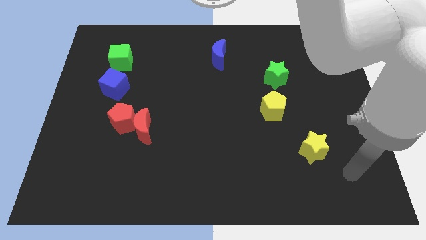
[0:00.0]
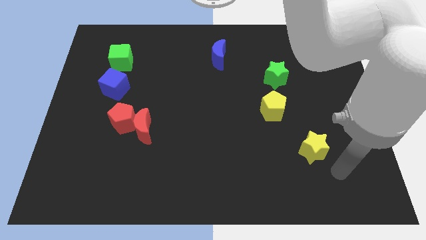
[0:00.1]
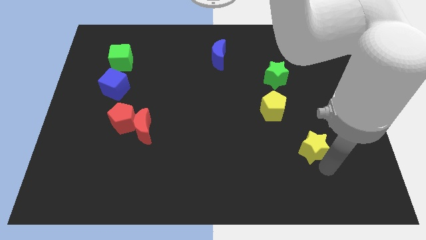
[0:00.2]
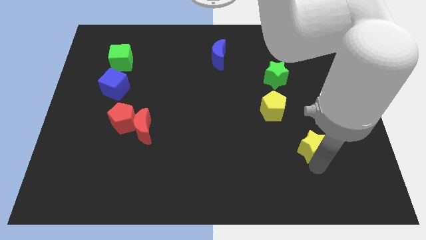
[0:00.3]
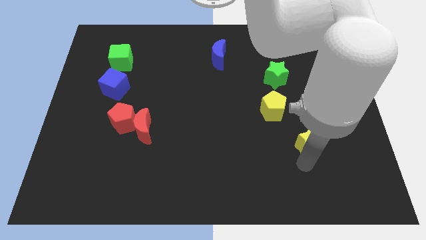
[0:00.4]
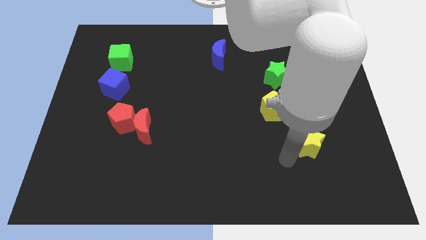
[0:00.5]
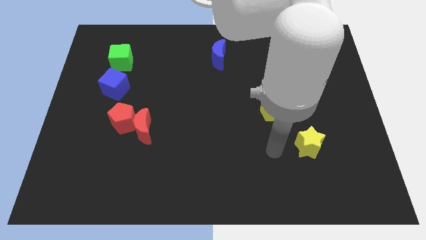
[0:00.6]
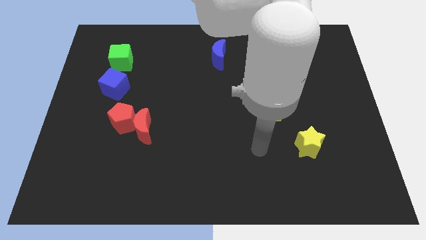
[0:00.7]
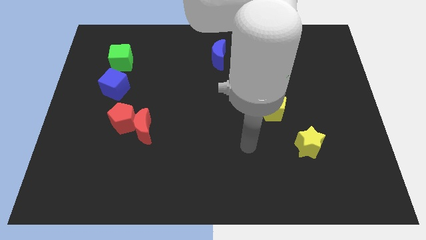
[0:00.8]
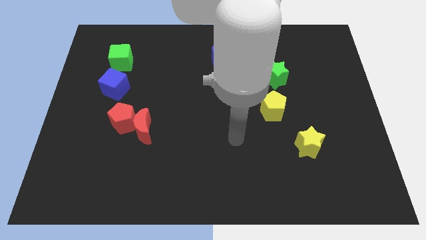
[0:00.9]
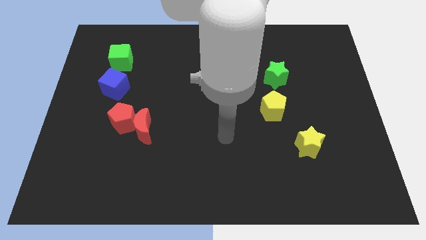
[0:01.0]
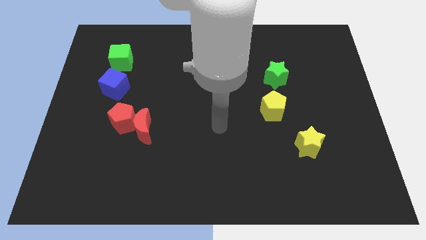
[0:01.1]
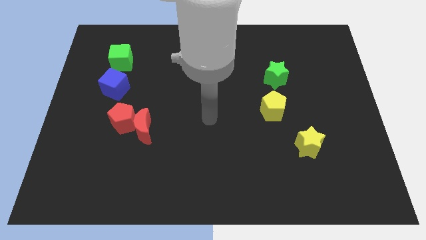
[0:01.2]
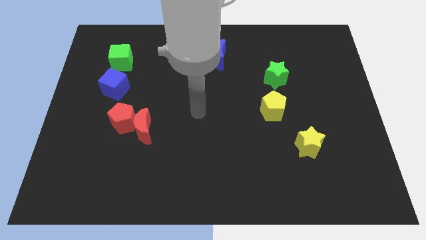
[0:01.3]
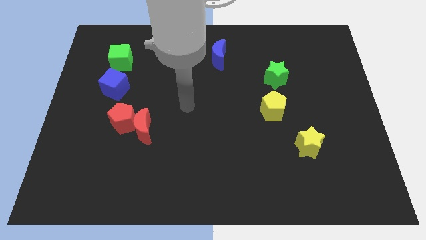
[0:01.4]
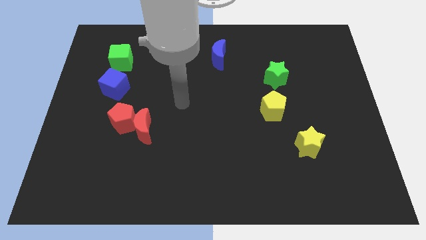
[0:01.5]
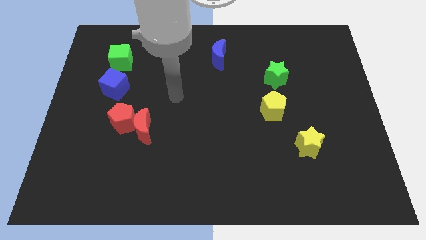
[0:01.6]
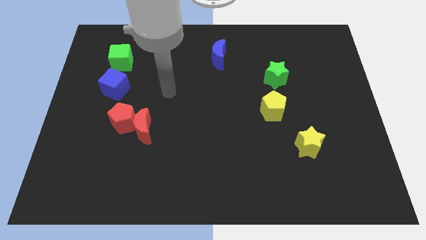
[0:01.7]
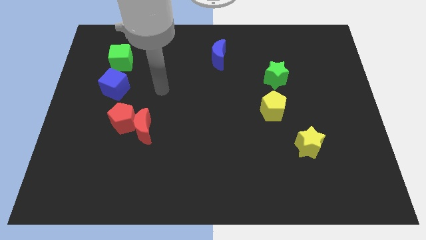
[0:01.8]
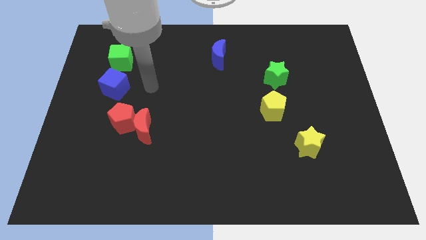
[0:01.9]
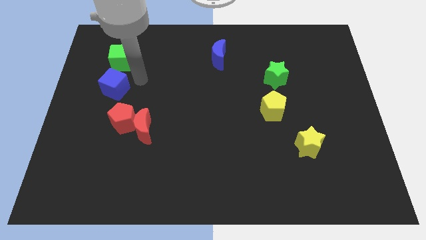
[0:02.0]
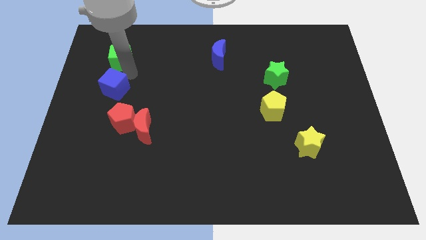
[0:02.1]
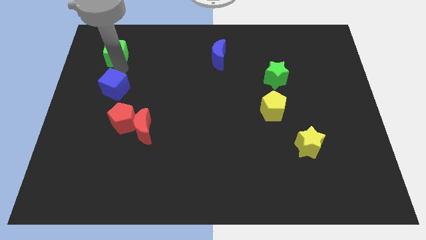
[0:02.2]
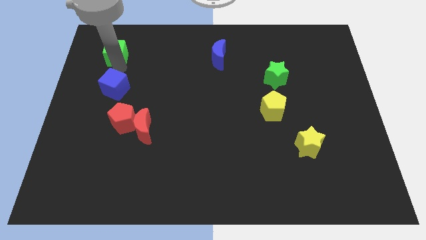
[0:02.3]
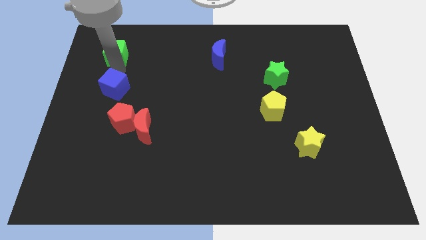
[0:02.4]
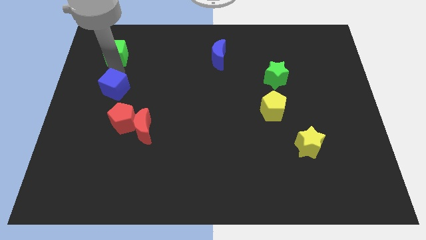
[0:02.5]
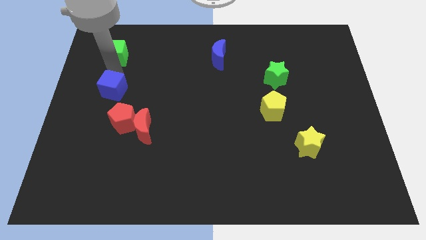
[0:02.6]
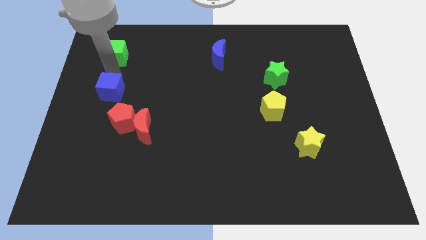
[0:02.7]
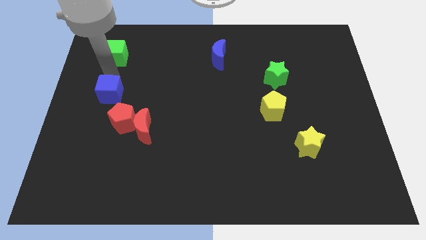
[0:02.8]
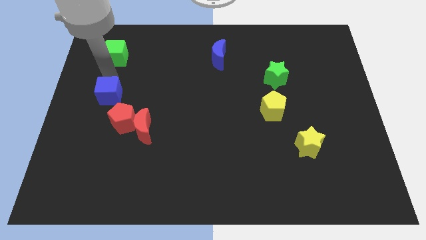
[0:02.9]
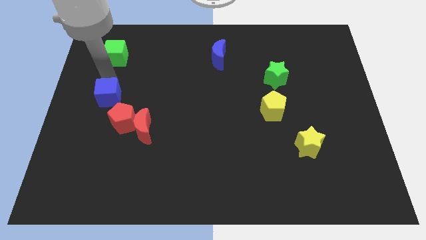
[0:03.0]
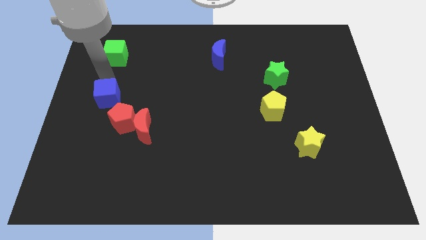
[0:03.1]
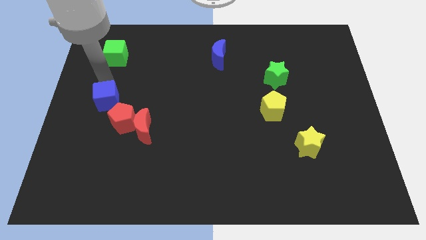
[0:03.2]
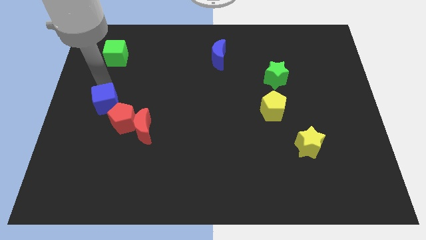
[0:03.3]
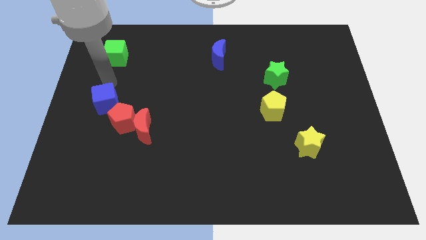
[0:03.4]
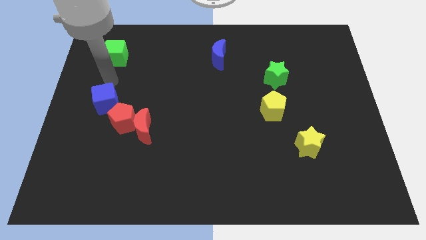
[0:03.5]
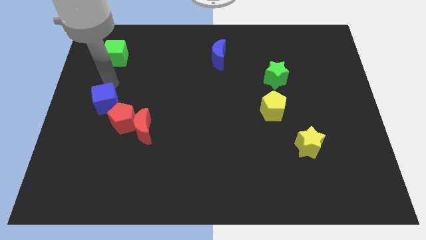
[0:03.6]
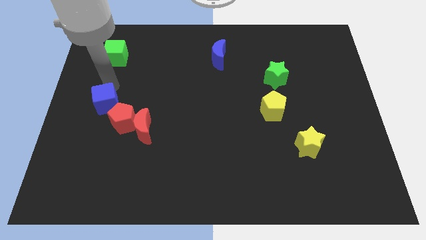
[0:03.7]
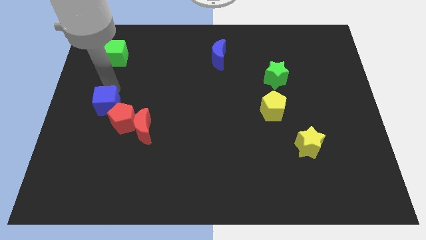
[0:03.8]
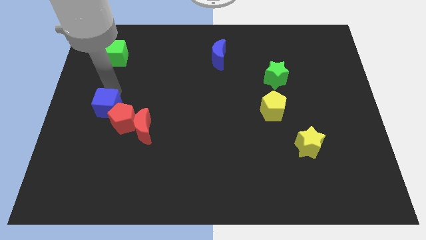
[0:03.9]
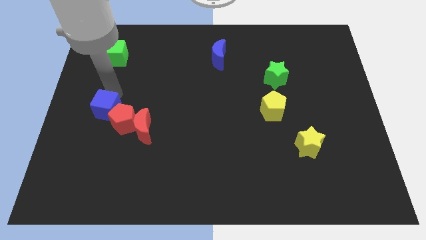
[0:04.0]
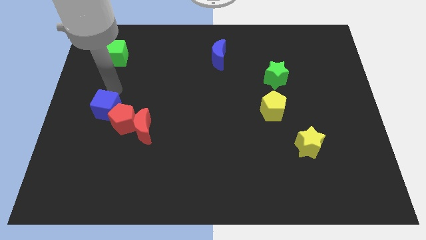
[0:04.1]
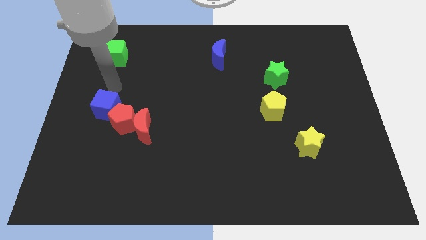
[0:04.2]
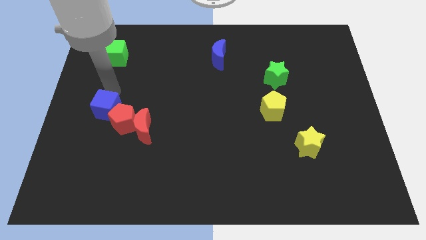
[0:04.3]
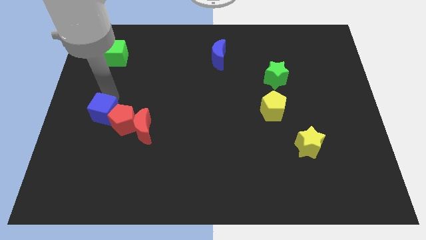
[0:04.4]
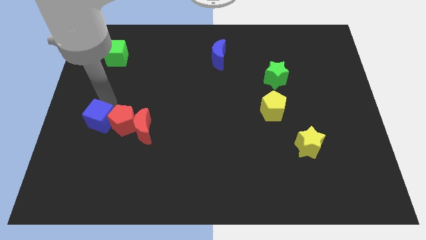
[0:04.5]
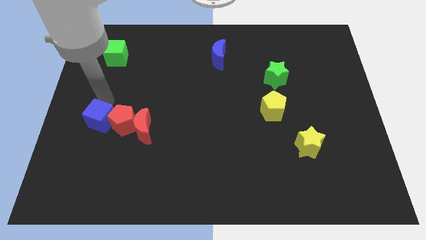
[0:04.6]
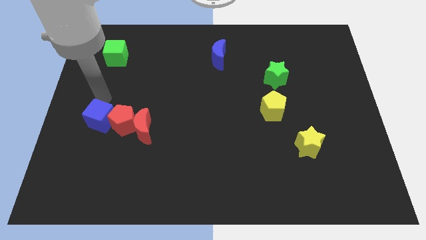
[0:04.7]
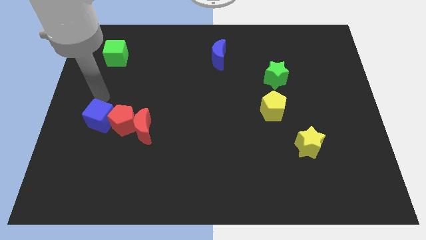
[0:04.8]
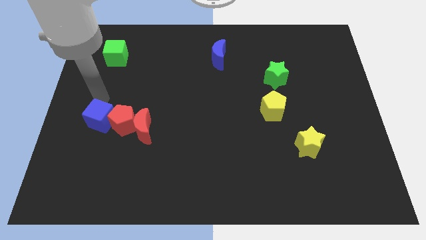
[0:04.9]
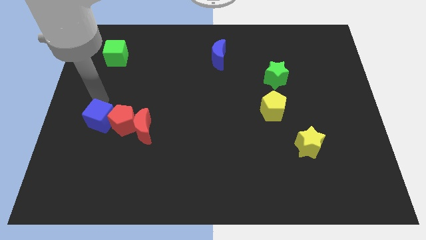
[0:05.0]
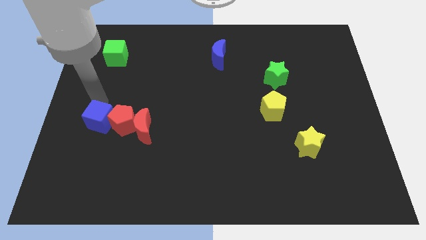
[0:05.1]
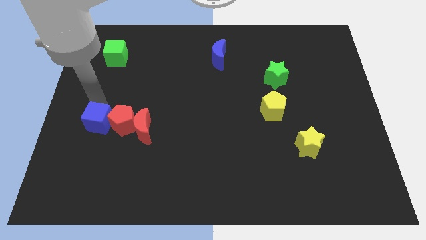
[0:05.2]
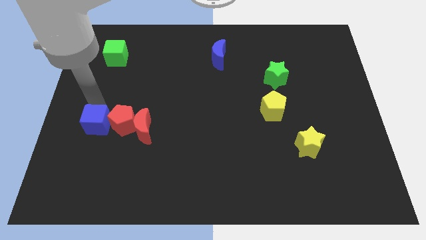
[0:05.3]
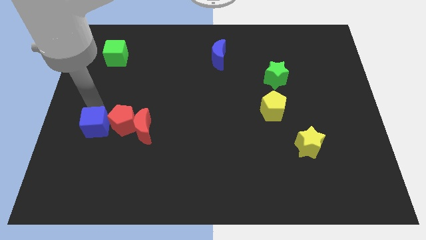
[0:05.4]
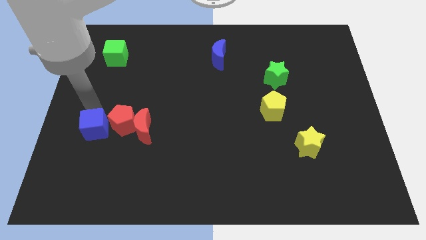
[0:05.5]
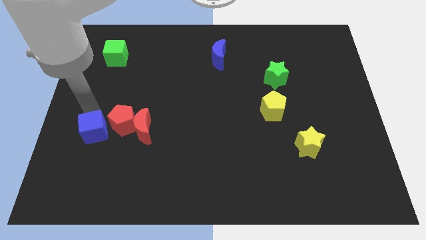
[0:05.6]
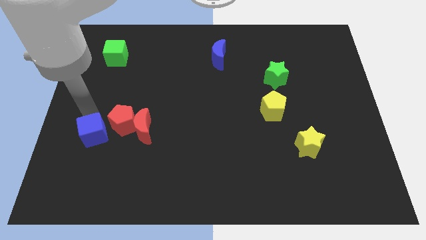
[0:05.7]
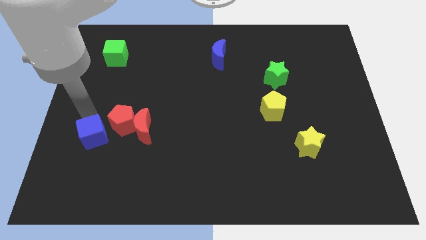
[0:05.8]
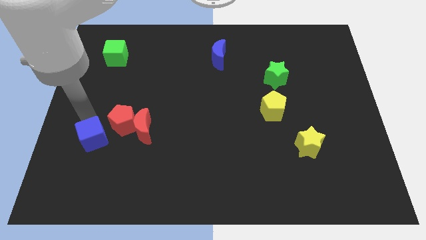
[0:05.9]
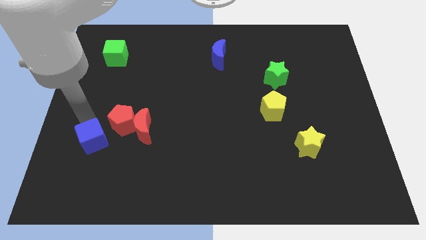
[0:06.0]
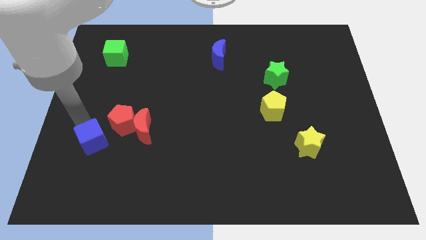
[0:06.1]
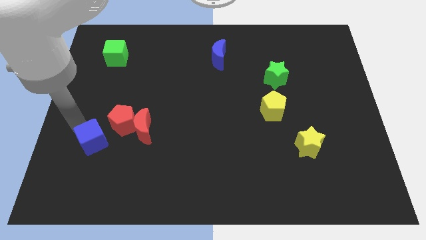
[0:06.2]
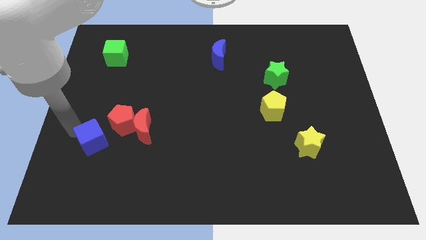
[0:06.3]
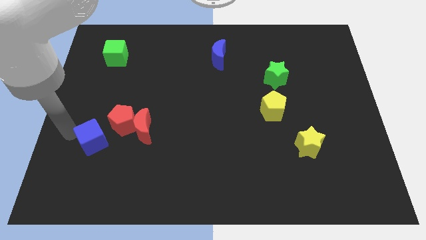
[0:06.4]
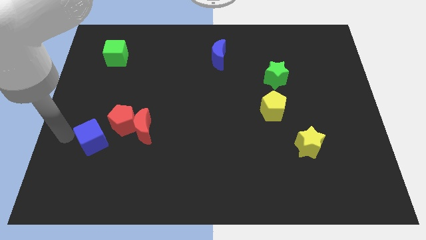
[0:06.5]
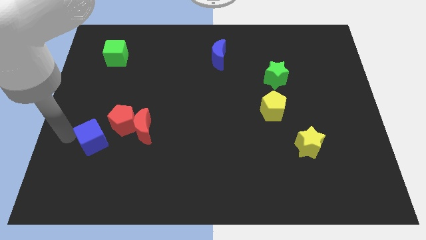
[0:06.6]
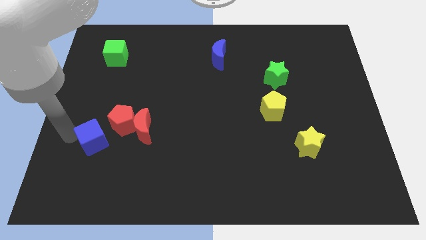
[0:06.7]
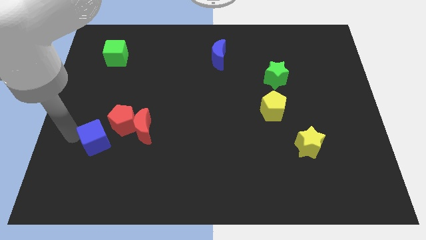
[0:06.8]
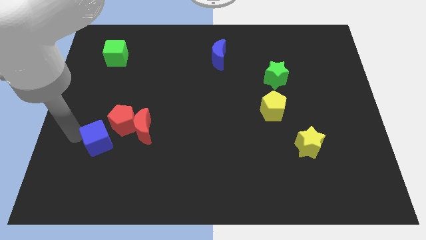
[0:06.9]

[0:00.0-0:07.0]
put the blue cube to the bottom side of the red pentagon

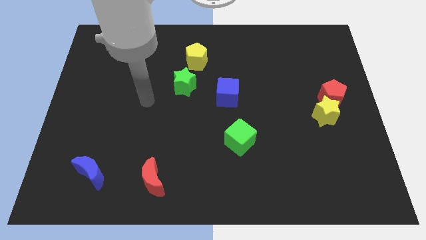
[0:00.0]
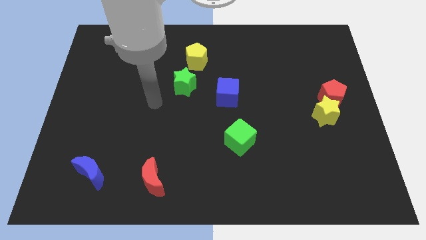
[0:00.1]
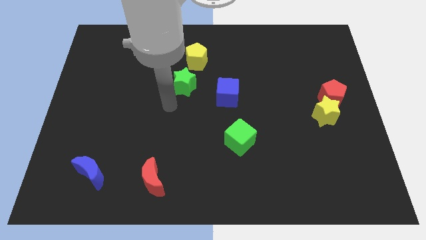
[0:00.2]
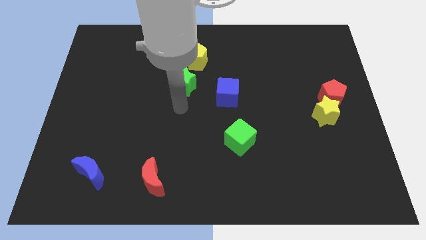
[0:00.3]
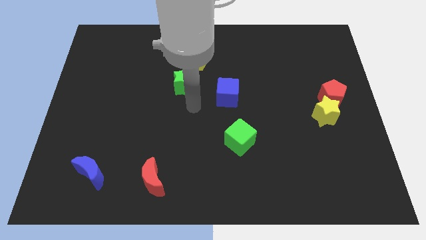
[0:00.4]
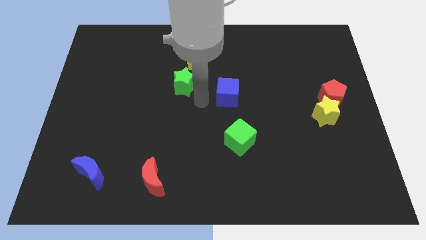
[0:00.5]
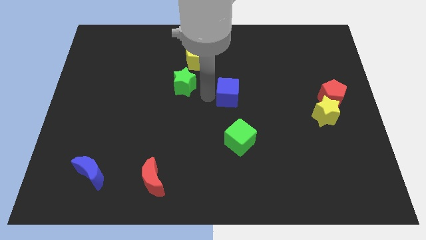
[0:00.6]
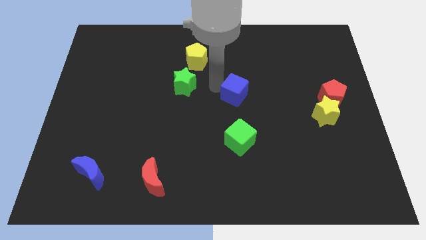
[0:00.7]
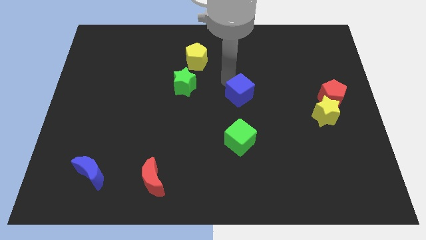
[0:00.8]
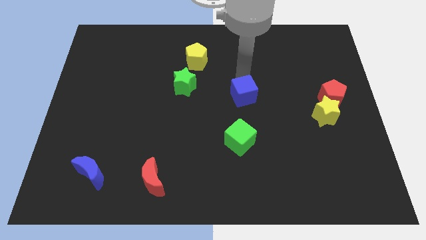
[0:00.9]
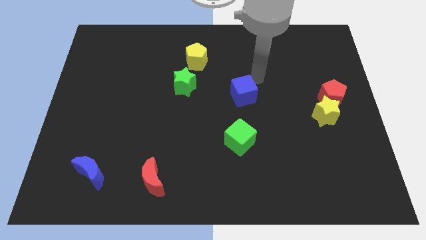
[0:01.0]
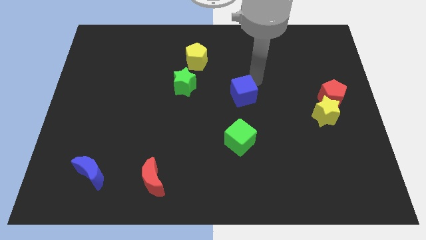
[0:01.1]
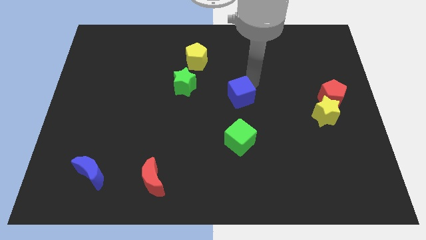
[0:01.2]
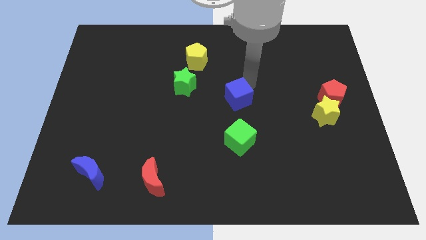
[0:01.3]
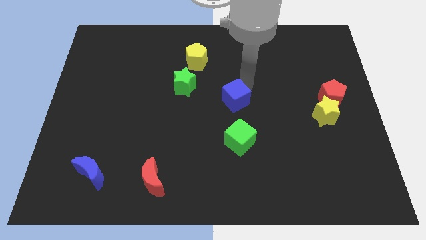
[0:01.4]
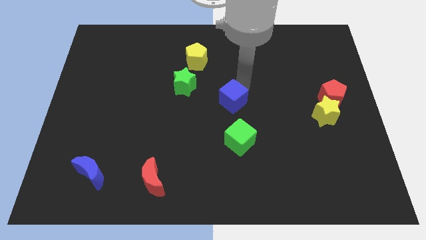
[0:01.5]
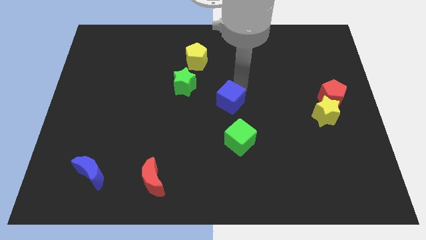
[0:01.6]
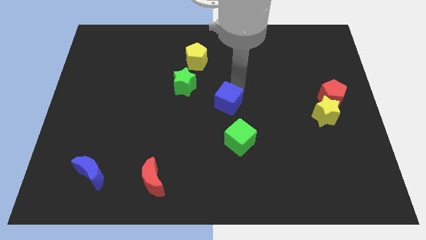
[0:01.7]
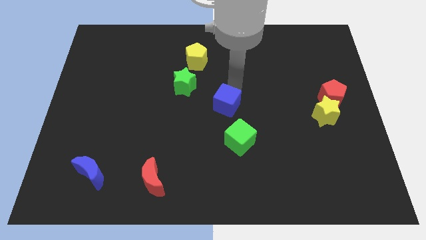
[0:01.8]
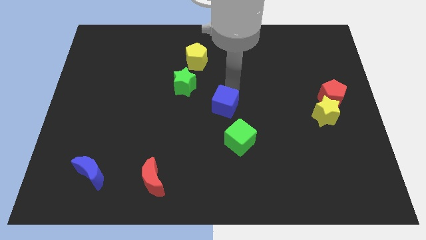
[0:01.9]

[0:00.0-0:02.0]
slide the blue cube diagonally up and to the left of the green cube
